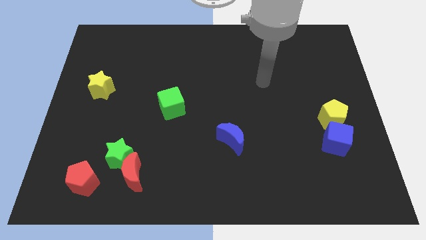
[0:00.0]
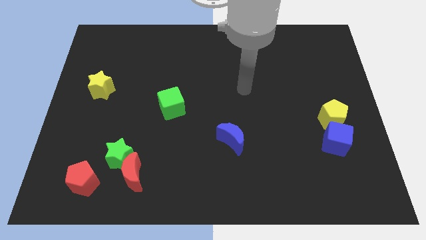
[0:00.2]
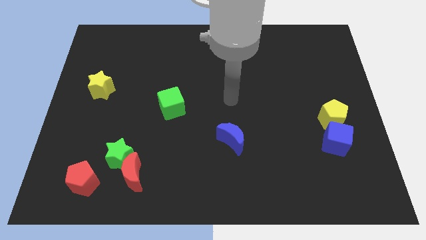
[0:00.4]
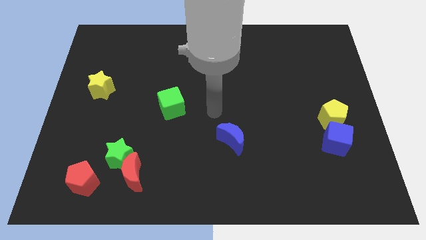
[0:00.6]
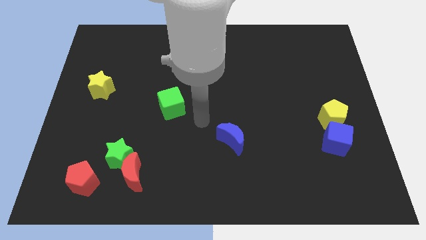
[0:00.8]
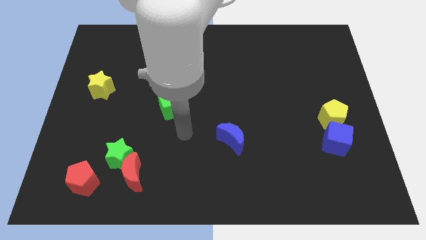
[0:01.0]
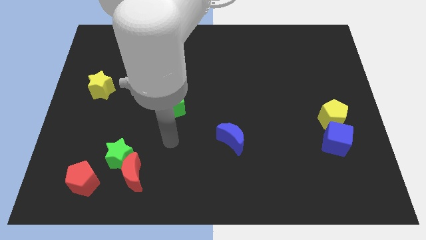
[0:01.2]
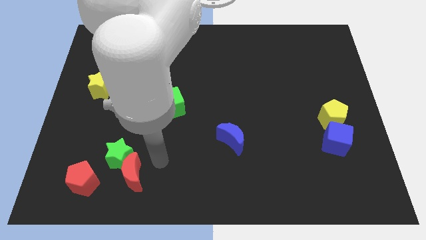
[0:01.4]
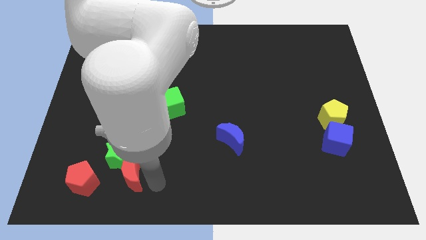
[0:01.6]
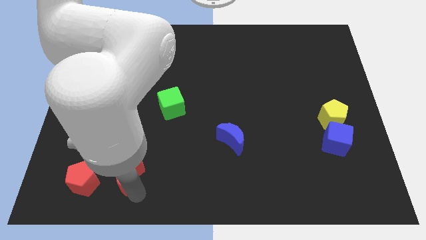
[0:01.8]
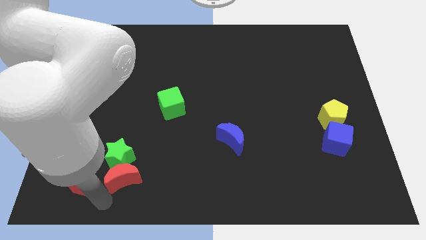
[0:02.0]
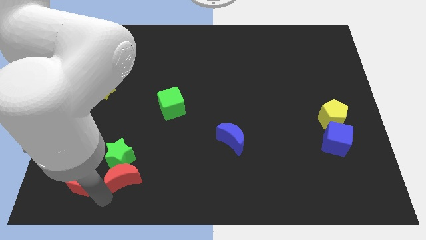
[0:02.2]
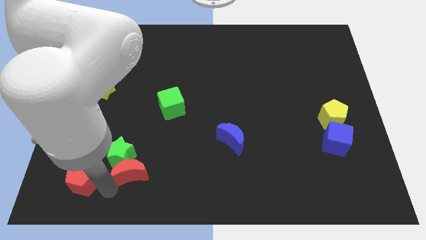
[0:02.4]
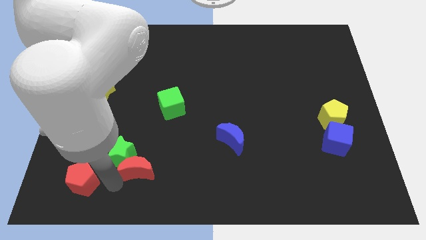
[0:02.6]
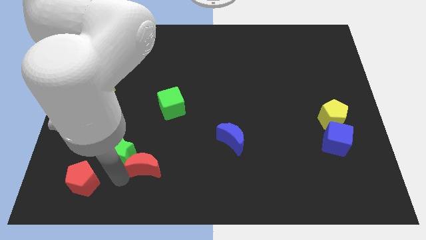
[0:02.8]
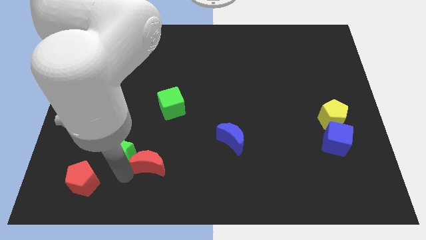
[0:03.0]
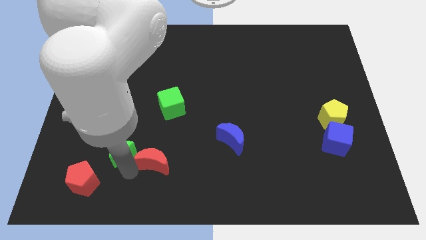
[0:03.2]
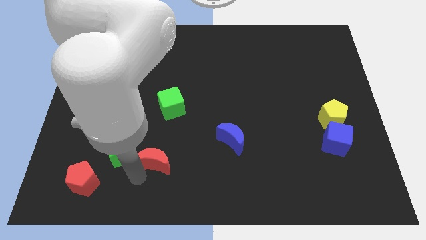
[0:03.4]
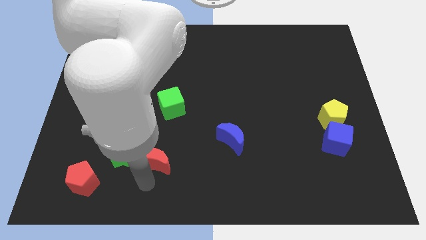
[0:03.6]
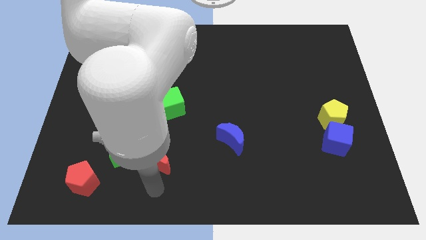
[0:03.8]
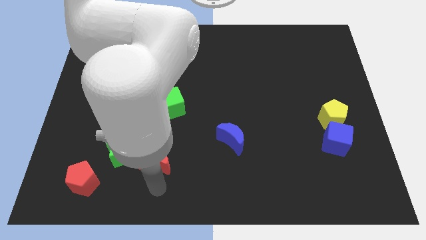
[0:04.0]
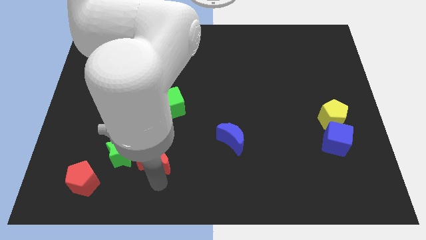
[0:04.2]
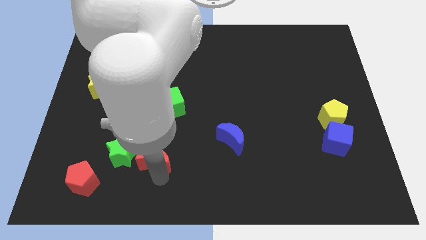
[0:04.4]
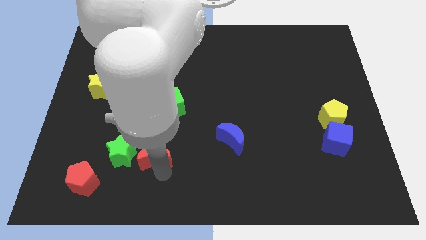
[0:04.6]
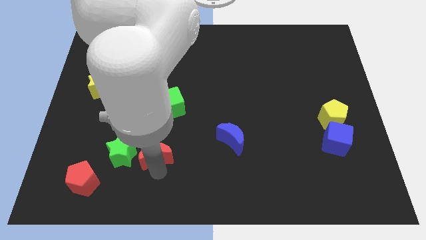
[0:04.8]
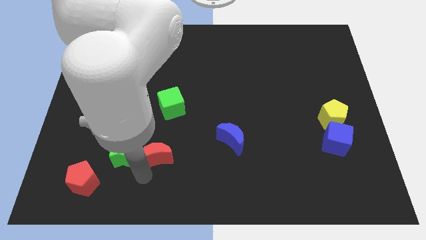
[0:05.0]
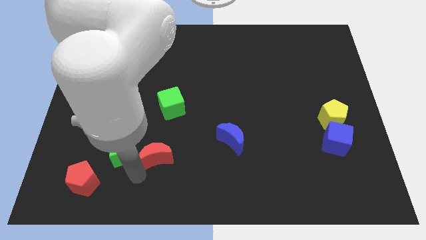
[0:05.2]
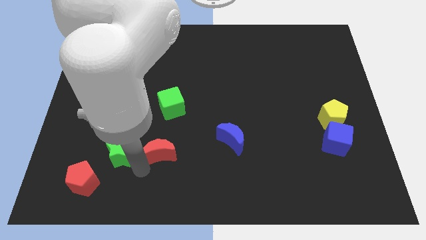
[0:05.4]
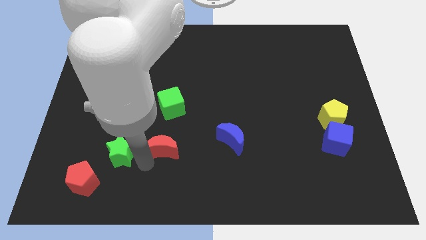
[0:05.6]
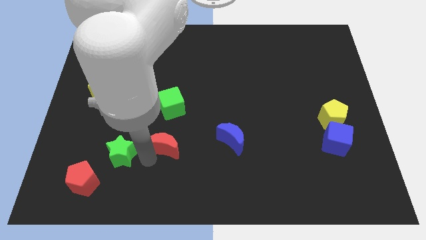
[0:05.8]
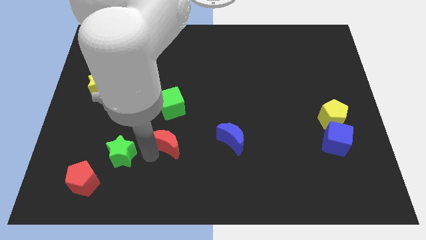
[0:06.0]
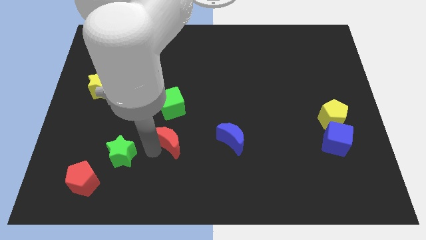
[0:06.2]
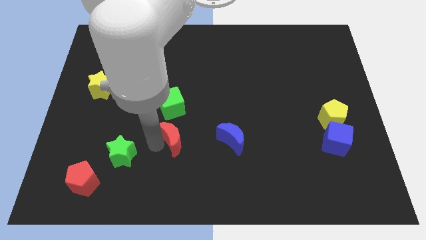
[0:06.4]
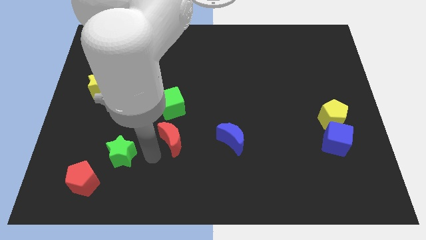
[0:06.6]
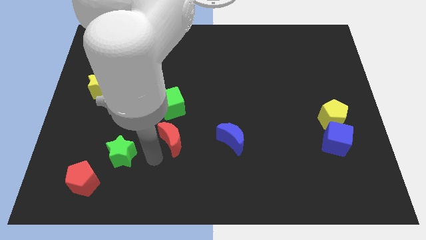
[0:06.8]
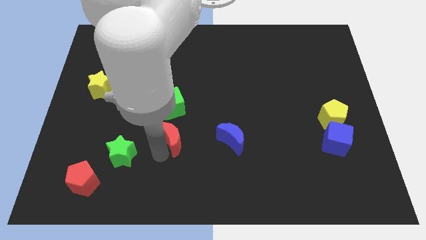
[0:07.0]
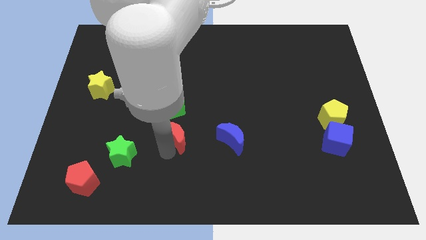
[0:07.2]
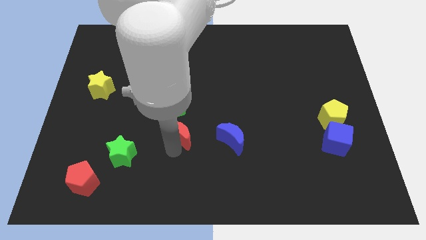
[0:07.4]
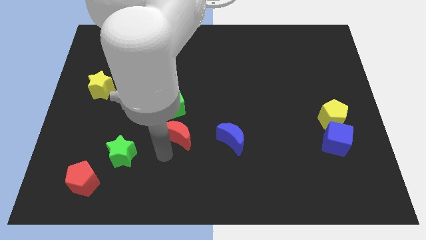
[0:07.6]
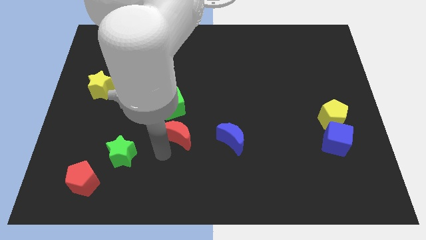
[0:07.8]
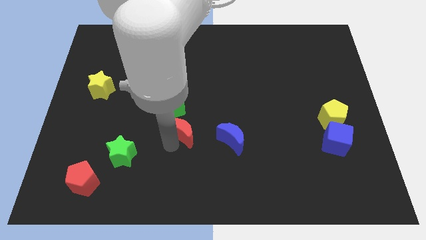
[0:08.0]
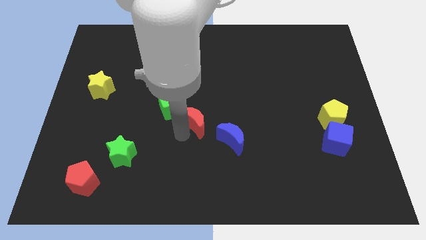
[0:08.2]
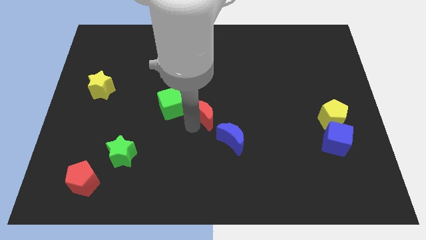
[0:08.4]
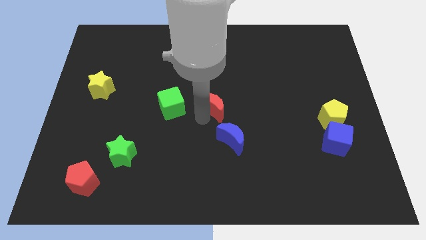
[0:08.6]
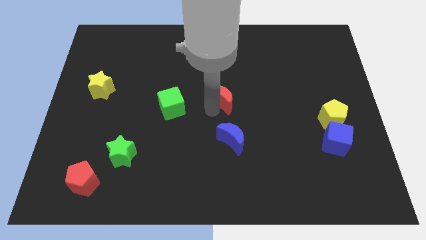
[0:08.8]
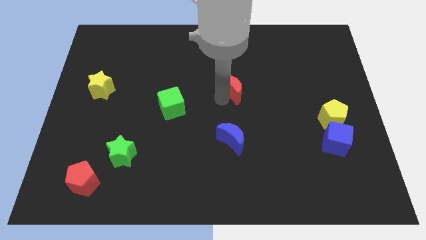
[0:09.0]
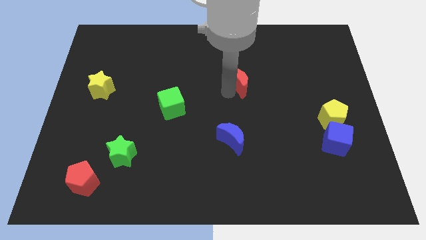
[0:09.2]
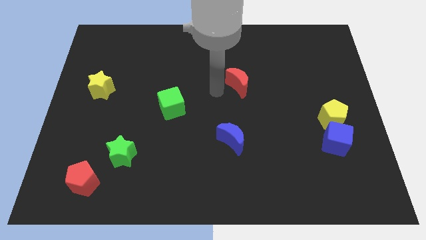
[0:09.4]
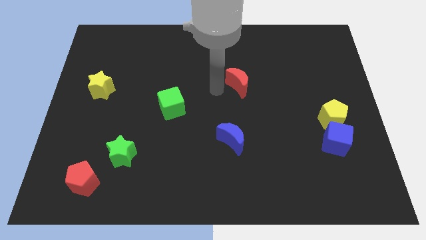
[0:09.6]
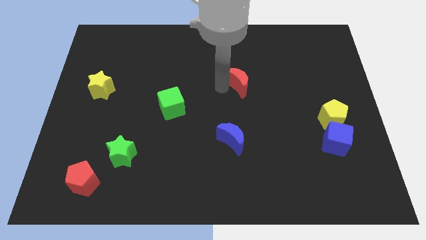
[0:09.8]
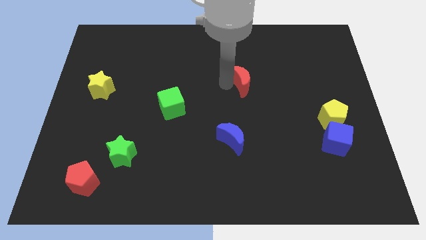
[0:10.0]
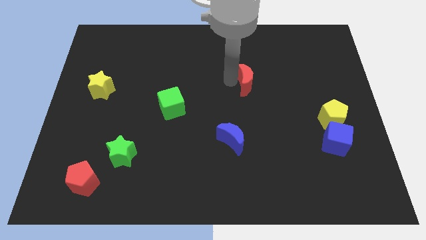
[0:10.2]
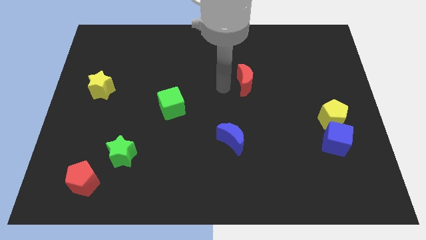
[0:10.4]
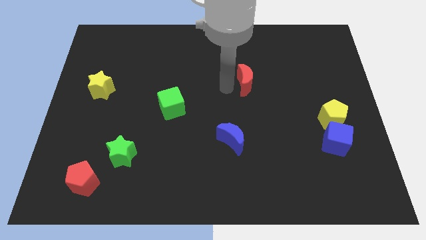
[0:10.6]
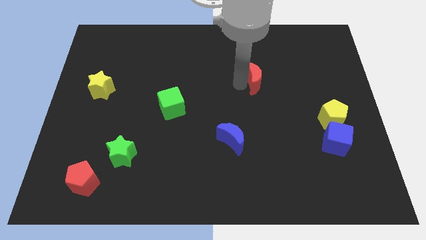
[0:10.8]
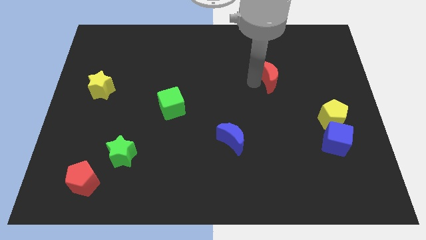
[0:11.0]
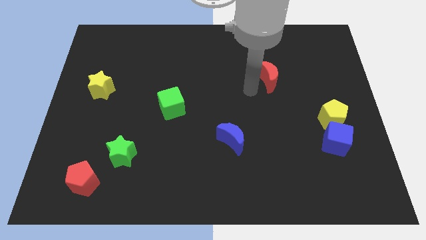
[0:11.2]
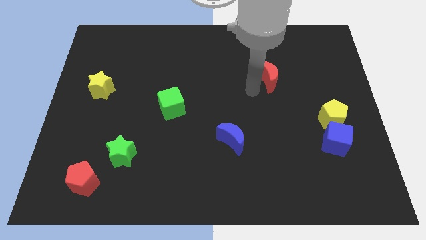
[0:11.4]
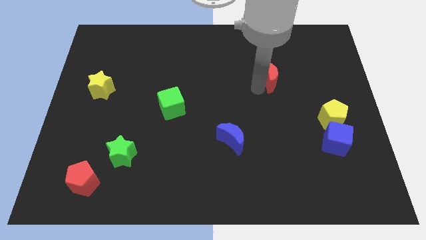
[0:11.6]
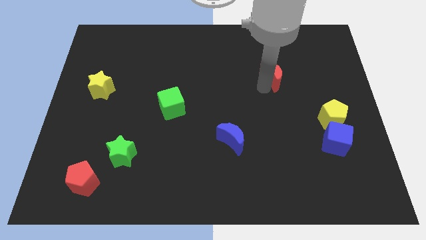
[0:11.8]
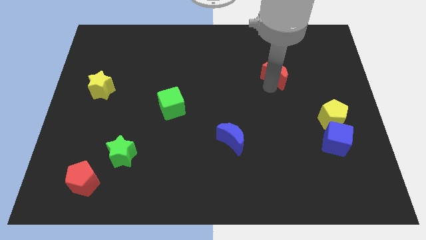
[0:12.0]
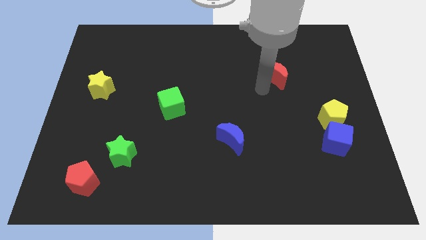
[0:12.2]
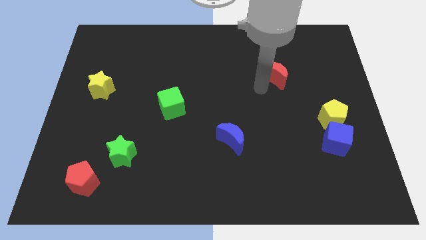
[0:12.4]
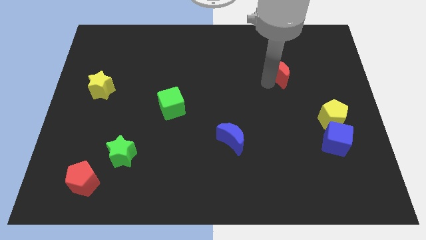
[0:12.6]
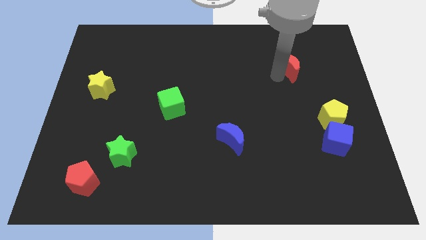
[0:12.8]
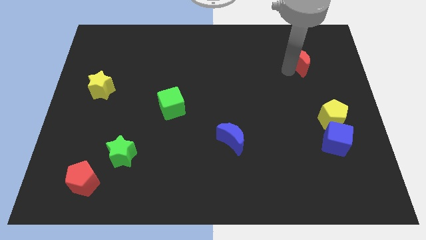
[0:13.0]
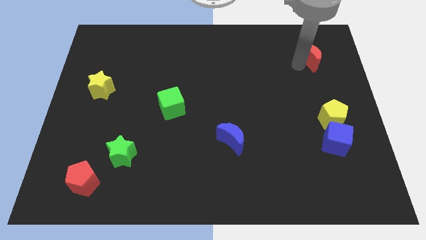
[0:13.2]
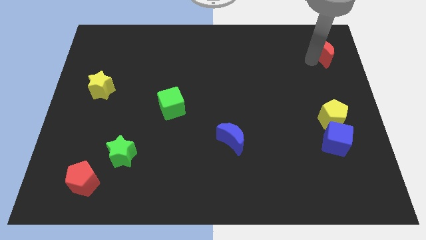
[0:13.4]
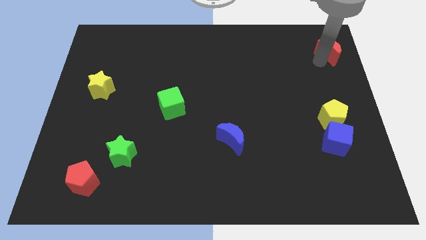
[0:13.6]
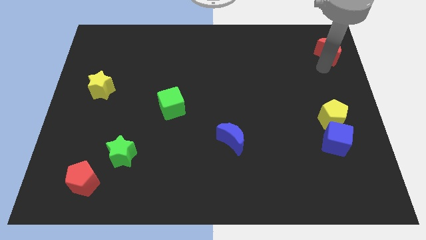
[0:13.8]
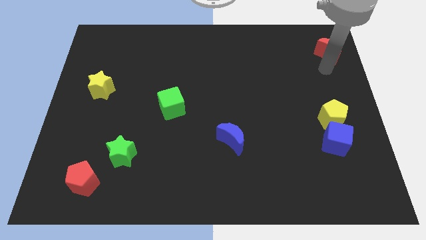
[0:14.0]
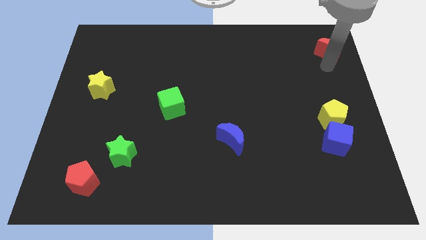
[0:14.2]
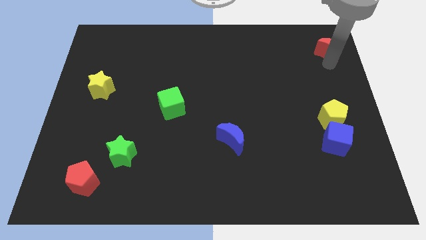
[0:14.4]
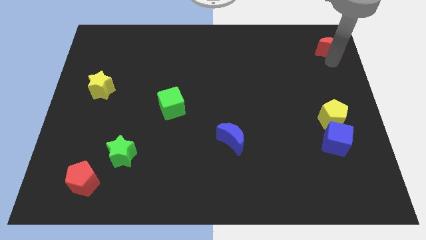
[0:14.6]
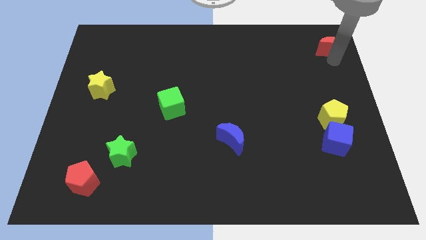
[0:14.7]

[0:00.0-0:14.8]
put the red moon to the upper right corner
